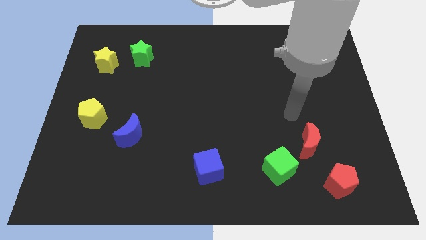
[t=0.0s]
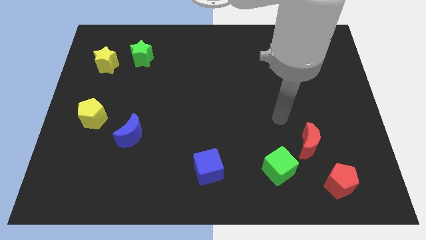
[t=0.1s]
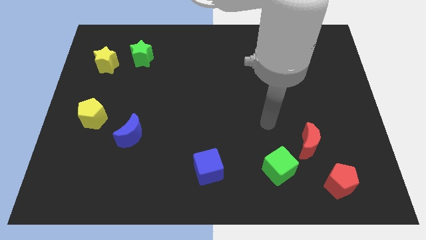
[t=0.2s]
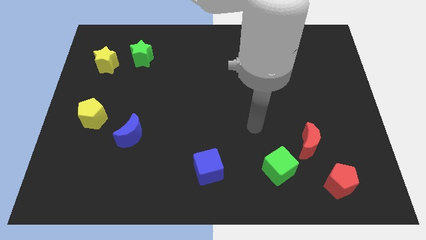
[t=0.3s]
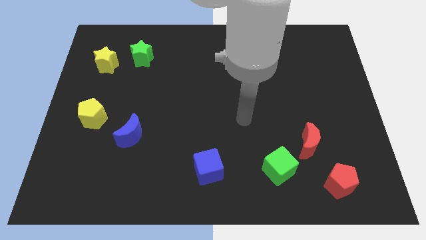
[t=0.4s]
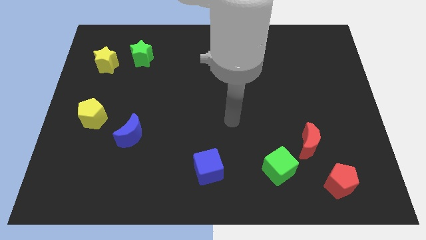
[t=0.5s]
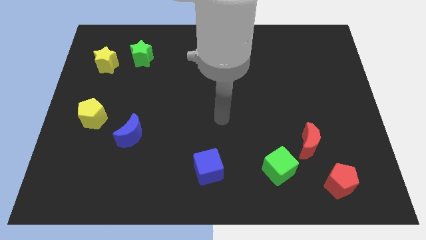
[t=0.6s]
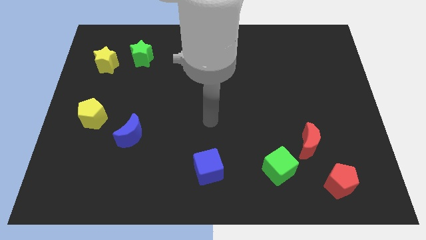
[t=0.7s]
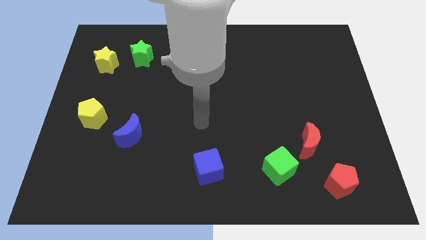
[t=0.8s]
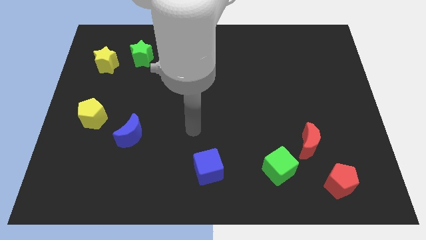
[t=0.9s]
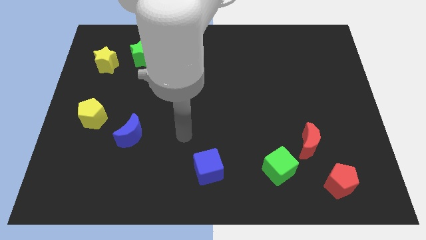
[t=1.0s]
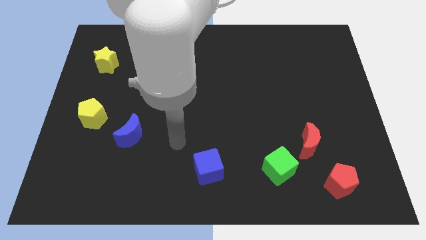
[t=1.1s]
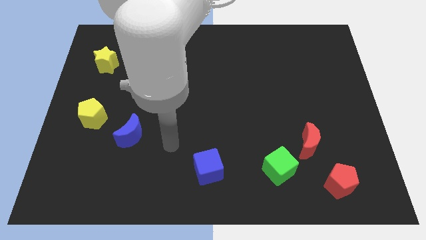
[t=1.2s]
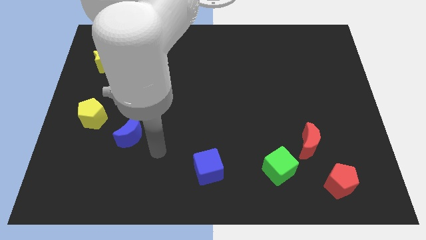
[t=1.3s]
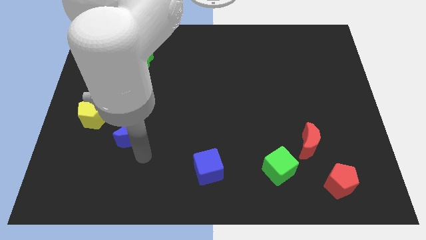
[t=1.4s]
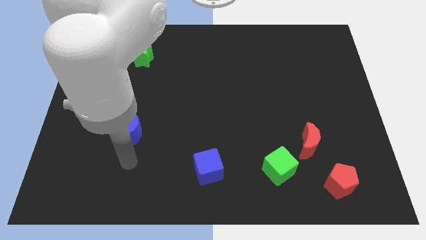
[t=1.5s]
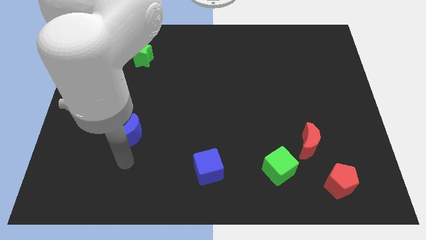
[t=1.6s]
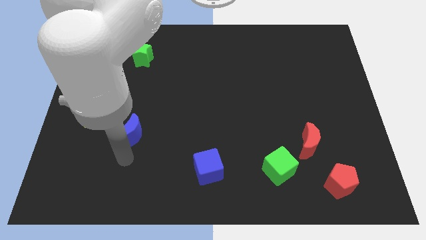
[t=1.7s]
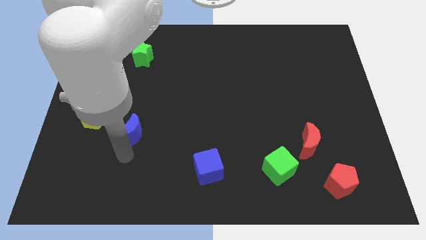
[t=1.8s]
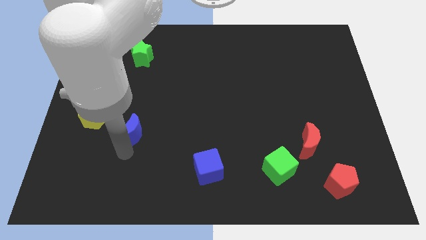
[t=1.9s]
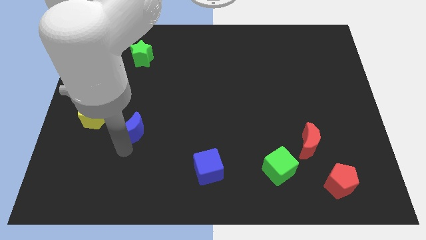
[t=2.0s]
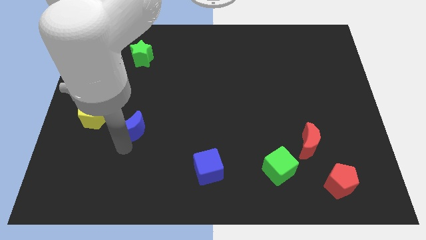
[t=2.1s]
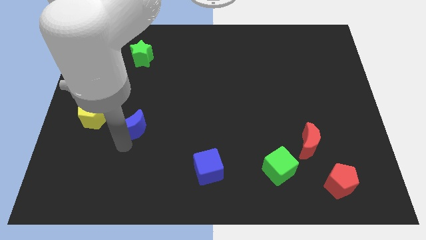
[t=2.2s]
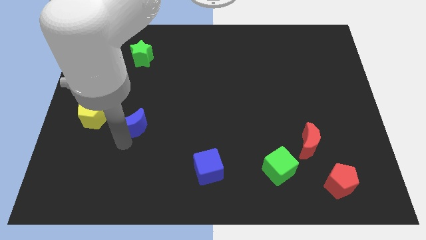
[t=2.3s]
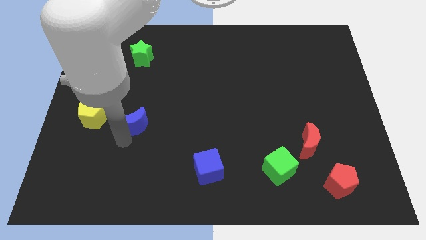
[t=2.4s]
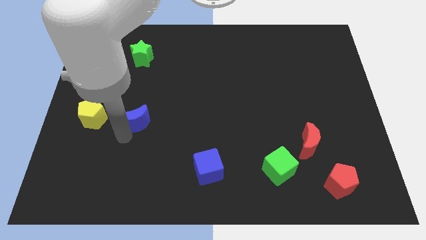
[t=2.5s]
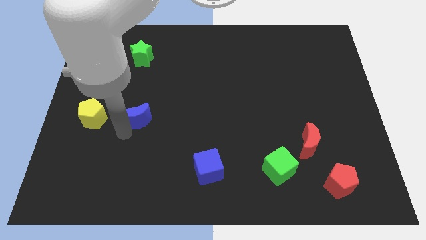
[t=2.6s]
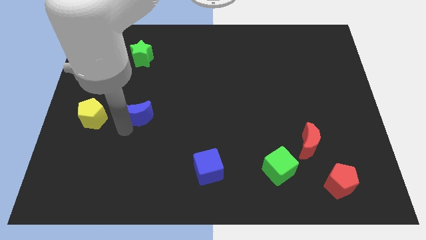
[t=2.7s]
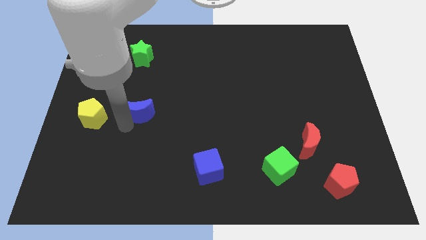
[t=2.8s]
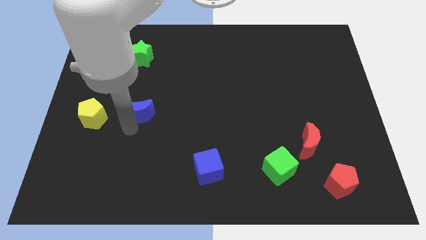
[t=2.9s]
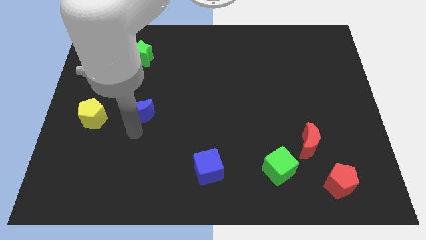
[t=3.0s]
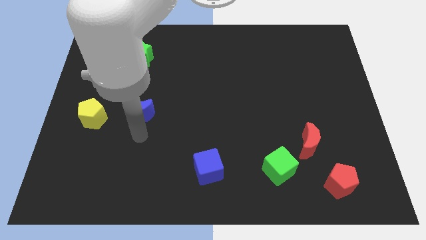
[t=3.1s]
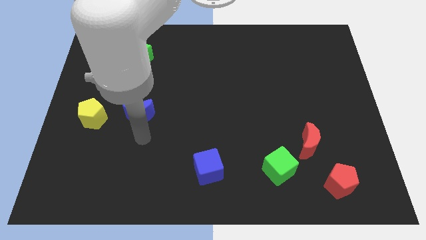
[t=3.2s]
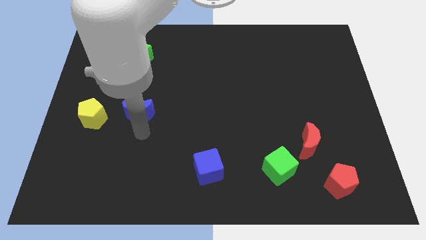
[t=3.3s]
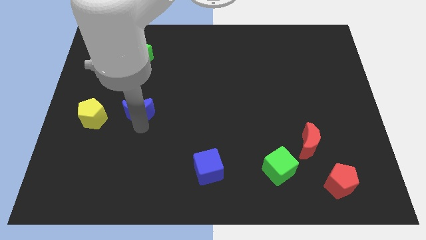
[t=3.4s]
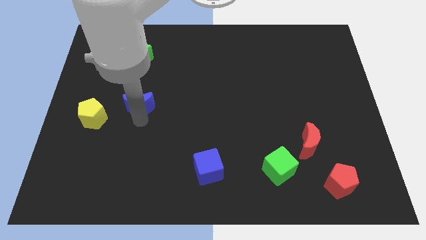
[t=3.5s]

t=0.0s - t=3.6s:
slightly push the blue moon upwards

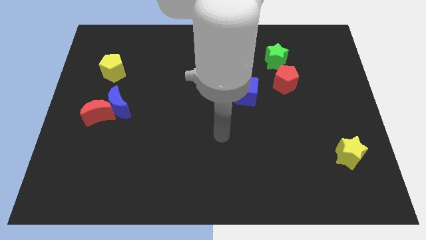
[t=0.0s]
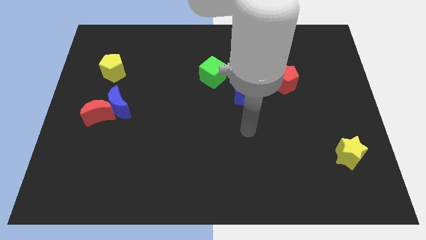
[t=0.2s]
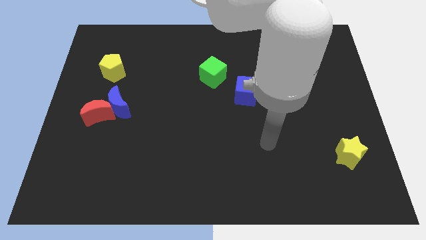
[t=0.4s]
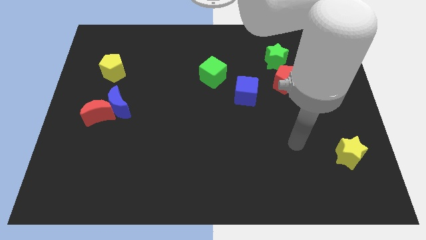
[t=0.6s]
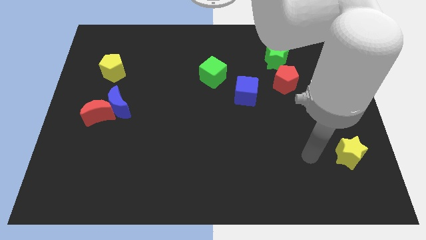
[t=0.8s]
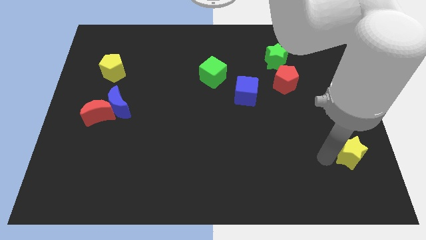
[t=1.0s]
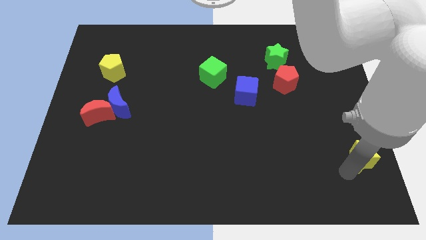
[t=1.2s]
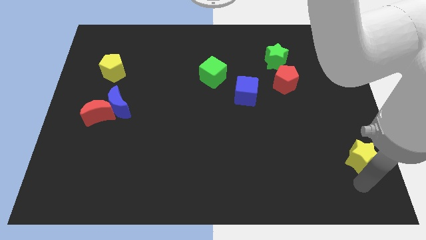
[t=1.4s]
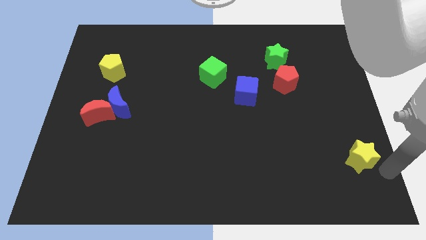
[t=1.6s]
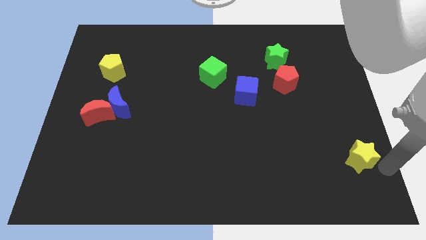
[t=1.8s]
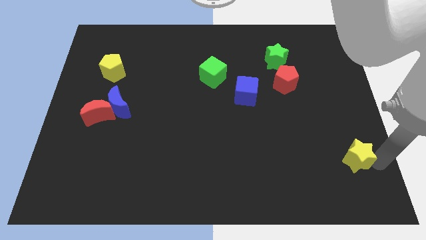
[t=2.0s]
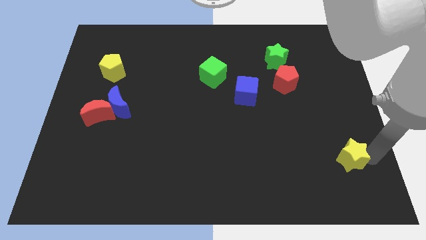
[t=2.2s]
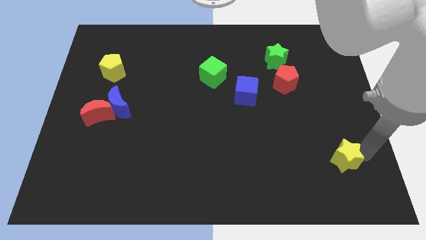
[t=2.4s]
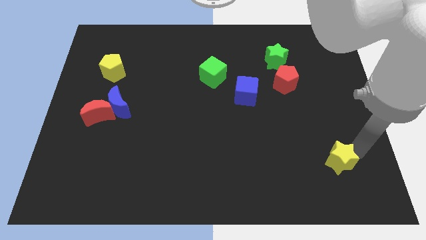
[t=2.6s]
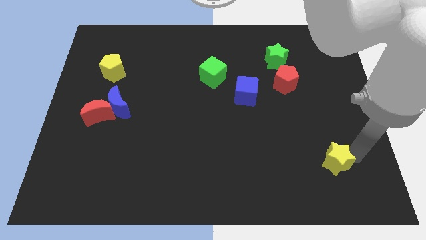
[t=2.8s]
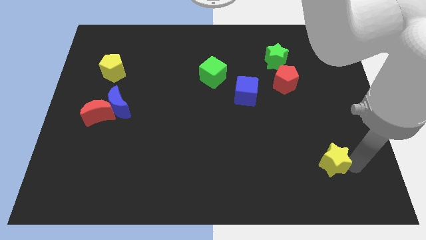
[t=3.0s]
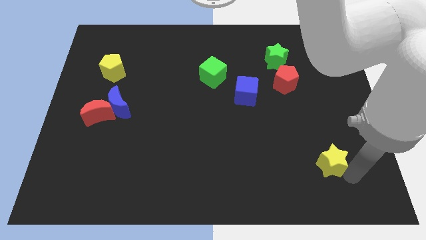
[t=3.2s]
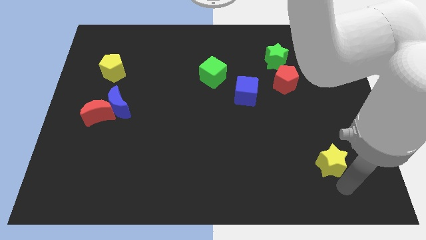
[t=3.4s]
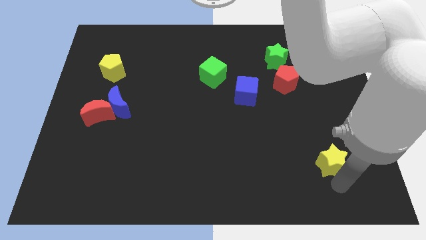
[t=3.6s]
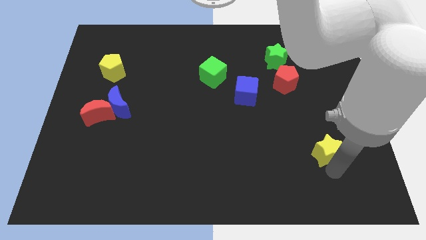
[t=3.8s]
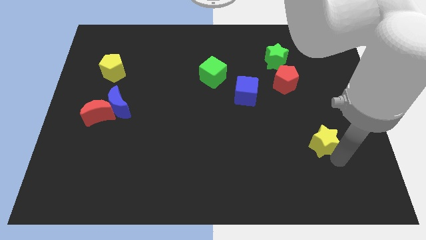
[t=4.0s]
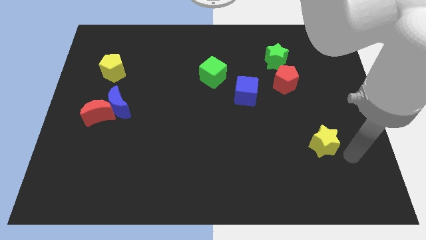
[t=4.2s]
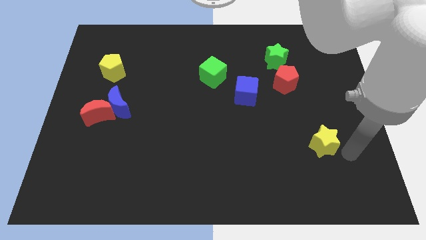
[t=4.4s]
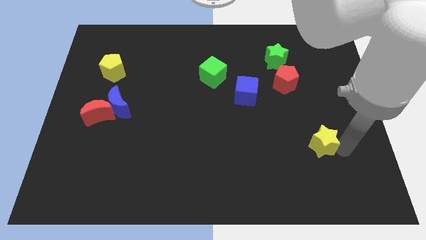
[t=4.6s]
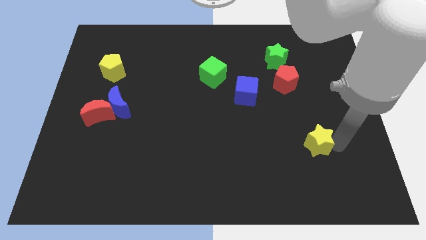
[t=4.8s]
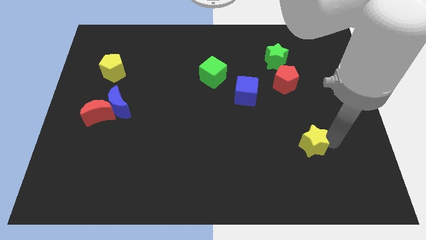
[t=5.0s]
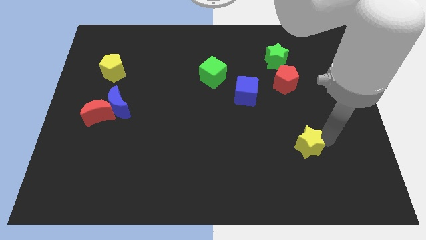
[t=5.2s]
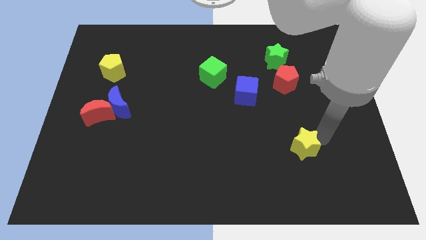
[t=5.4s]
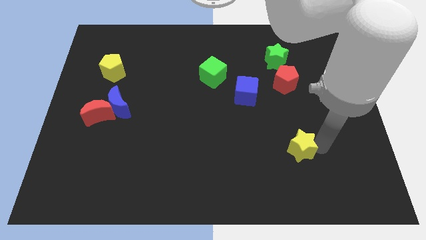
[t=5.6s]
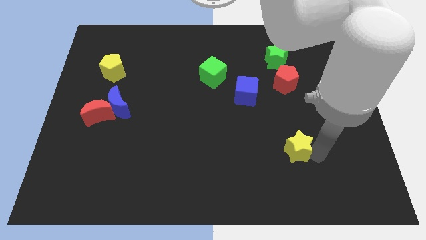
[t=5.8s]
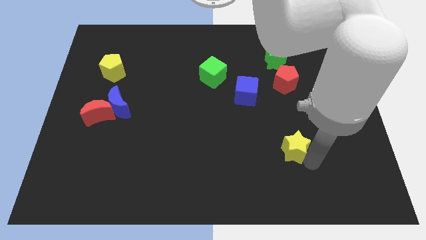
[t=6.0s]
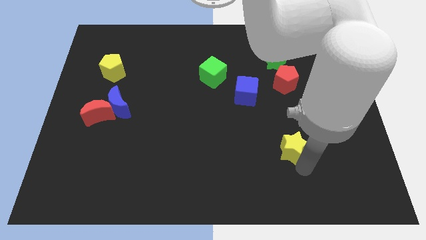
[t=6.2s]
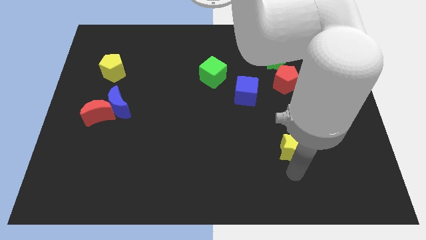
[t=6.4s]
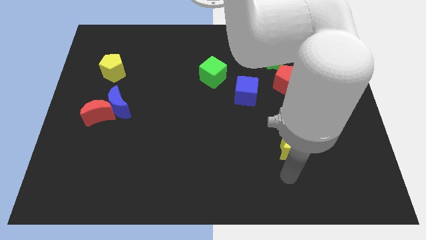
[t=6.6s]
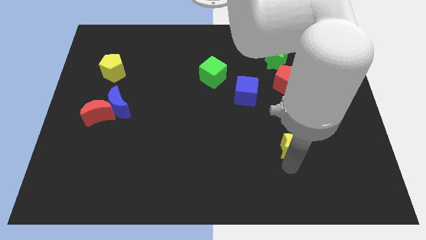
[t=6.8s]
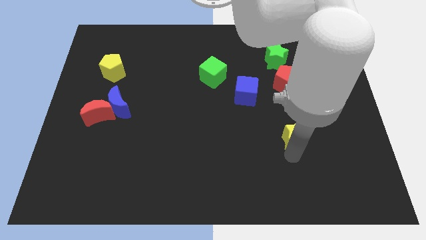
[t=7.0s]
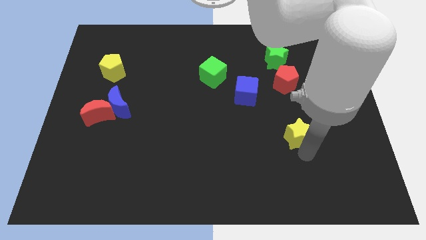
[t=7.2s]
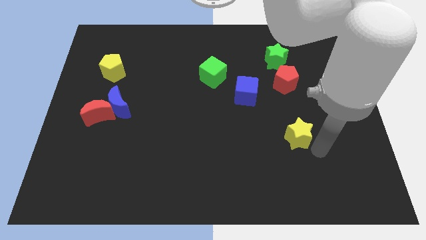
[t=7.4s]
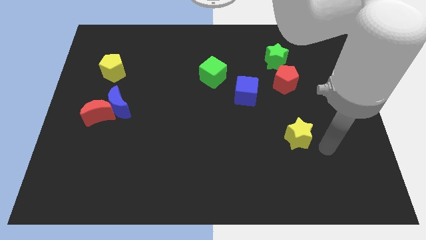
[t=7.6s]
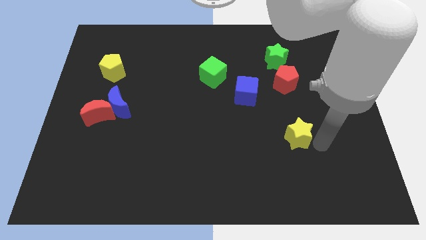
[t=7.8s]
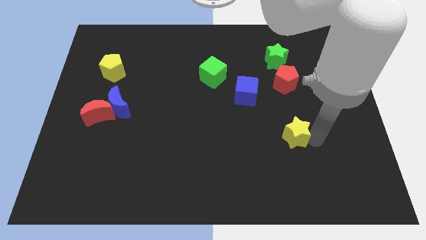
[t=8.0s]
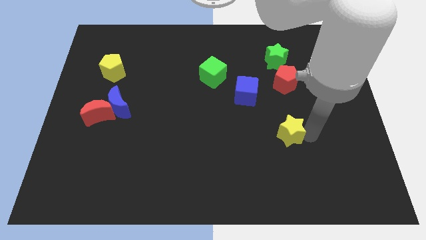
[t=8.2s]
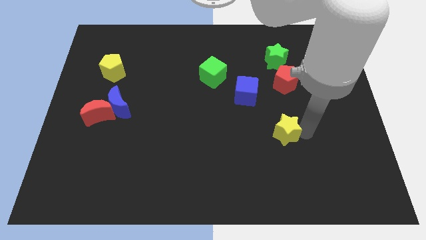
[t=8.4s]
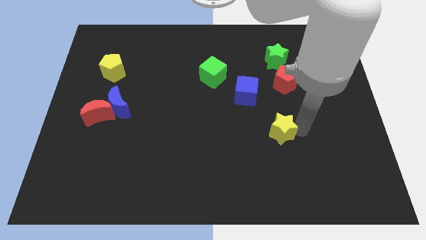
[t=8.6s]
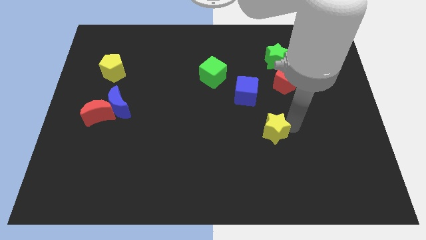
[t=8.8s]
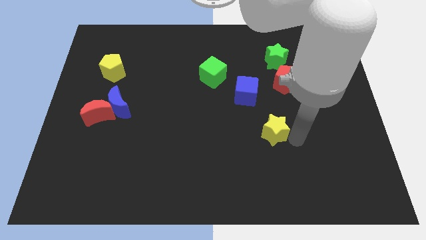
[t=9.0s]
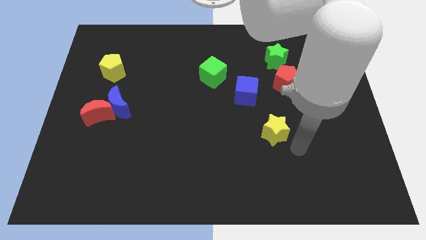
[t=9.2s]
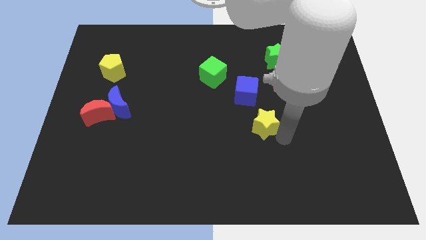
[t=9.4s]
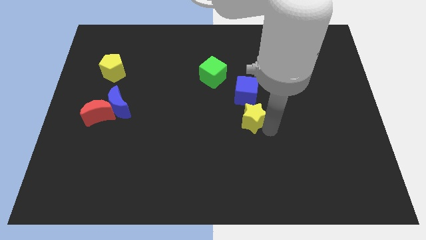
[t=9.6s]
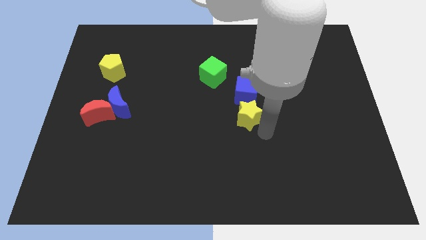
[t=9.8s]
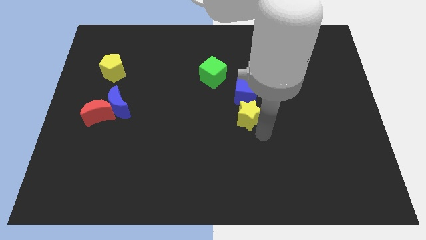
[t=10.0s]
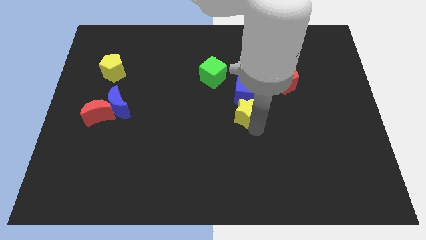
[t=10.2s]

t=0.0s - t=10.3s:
move the yellow star diagonally upwards and to the left
